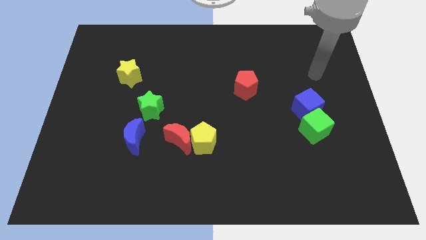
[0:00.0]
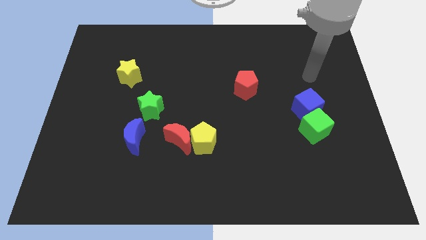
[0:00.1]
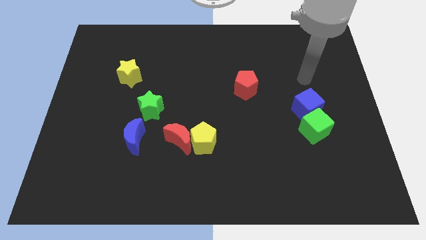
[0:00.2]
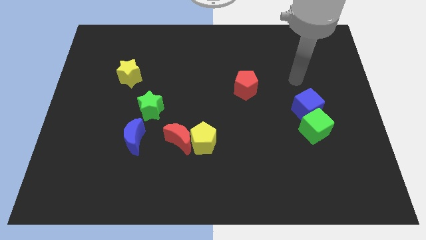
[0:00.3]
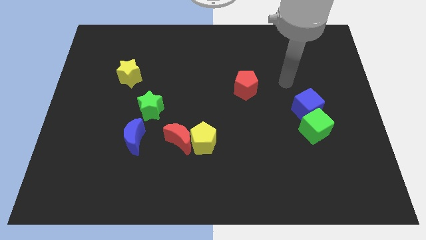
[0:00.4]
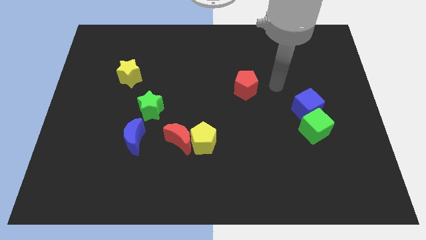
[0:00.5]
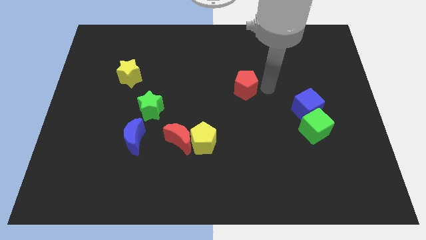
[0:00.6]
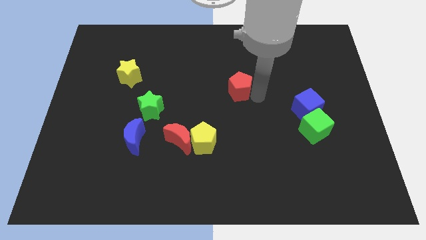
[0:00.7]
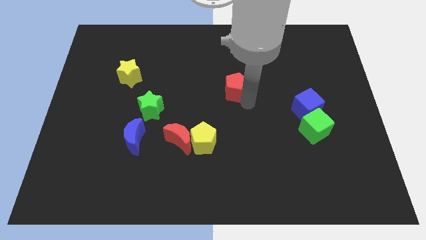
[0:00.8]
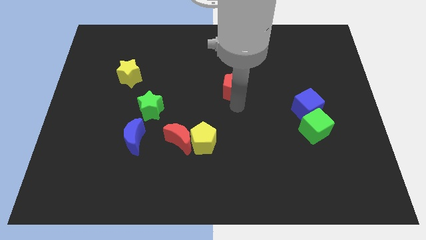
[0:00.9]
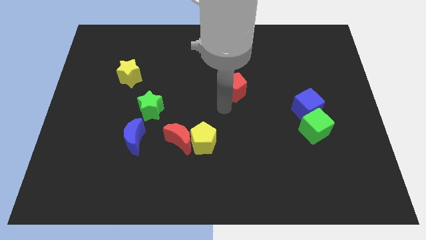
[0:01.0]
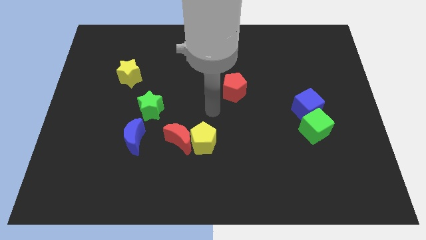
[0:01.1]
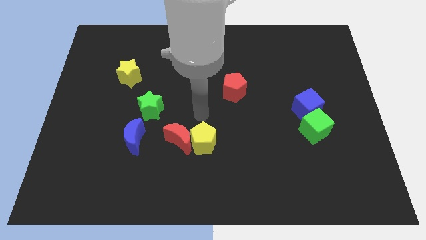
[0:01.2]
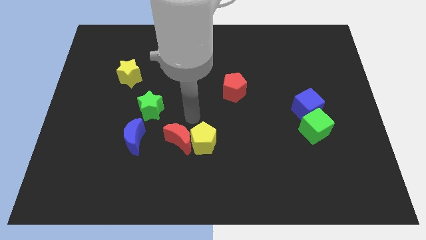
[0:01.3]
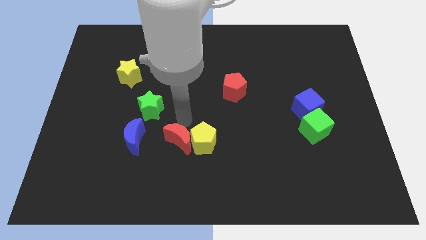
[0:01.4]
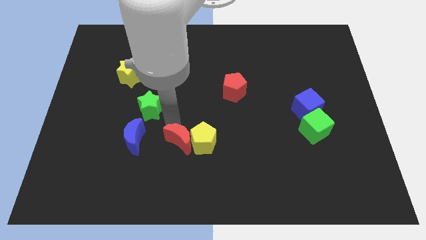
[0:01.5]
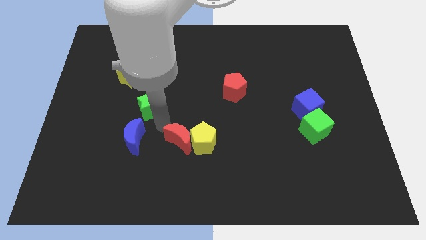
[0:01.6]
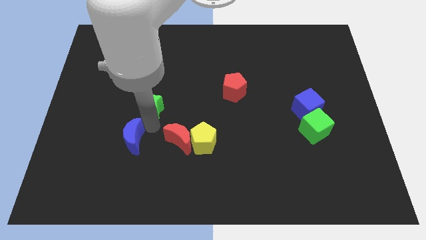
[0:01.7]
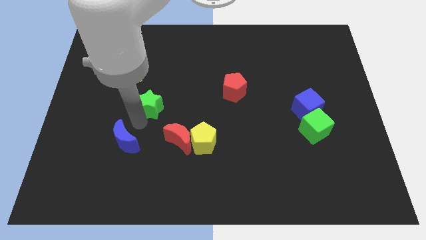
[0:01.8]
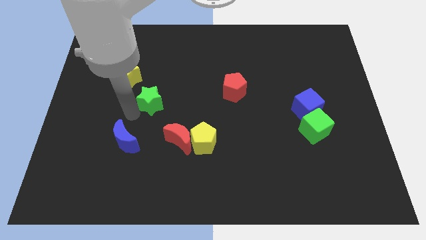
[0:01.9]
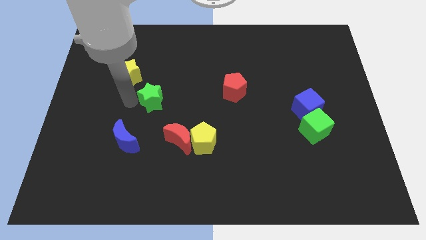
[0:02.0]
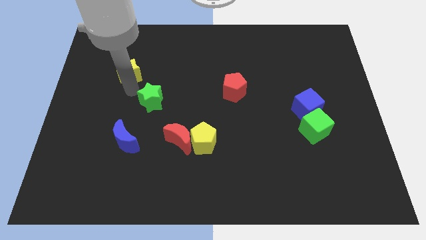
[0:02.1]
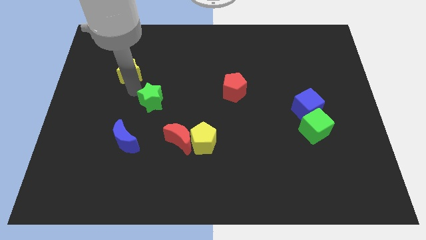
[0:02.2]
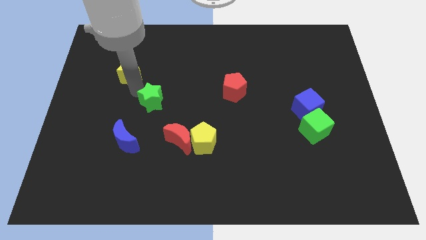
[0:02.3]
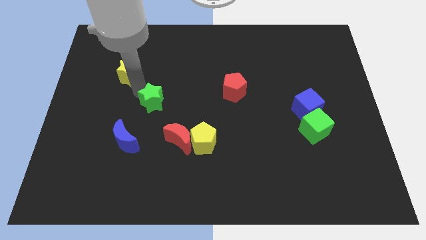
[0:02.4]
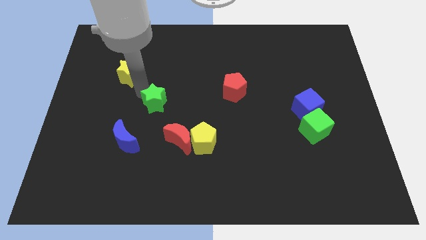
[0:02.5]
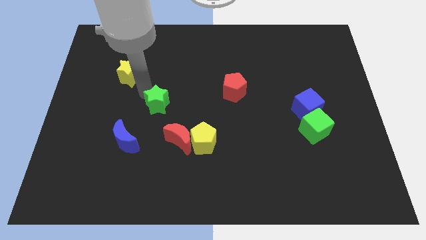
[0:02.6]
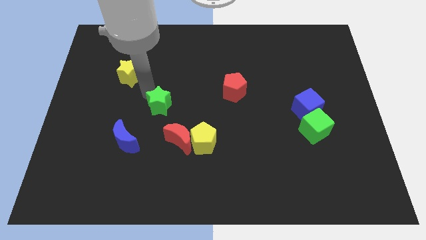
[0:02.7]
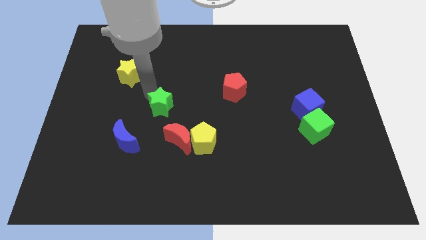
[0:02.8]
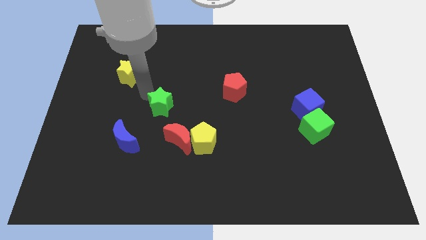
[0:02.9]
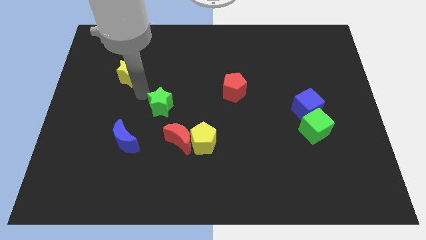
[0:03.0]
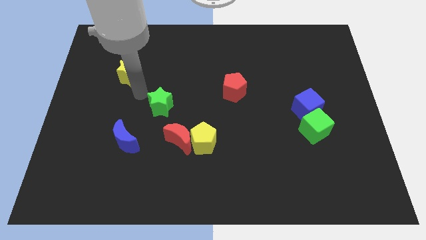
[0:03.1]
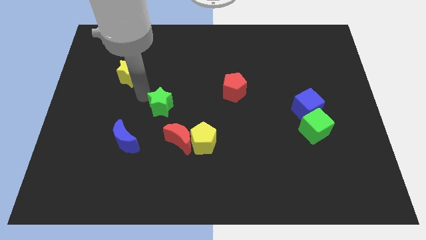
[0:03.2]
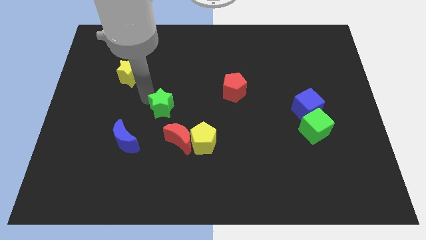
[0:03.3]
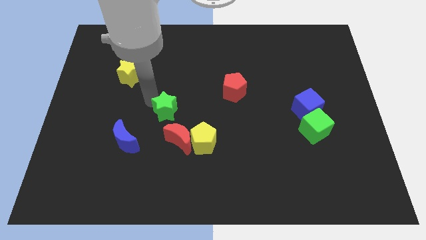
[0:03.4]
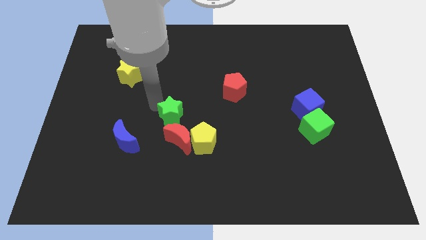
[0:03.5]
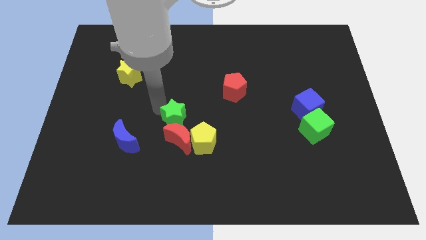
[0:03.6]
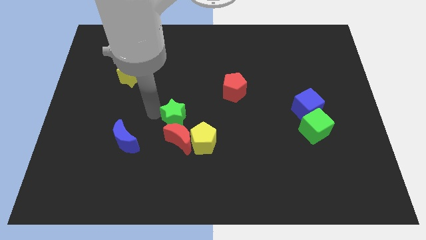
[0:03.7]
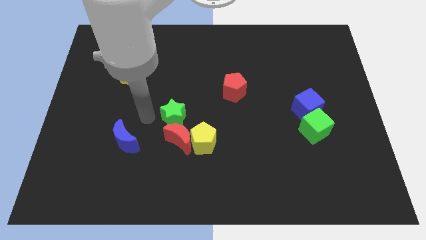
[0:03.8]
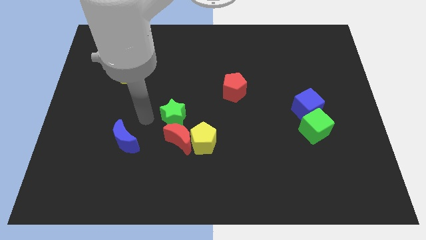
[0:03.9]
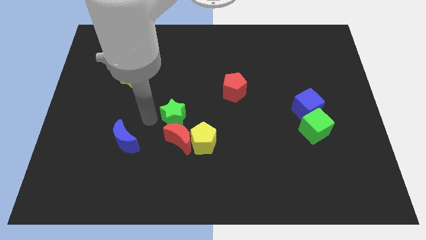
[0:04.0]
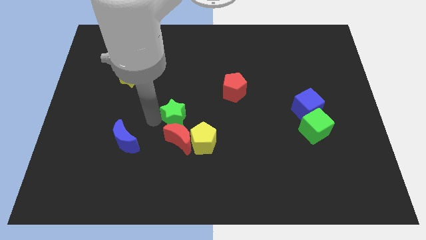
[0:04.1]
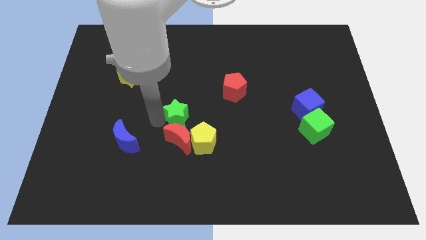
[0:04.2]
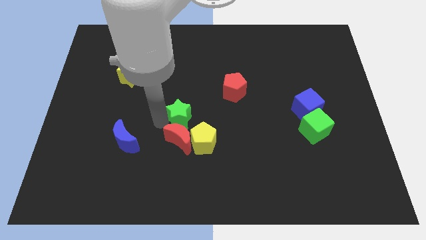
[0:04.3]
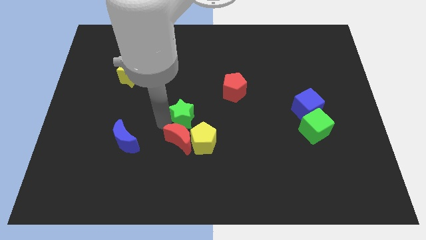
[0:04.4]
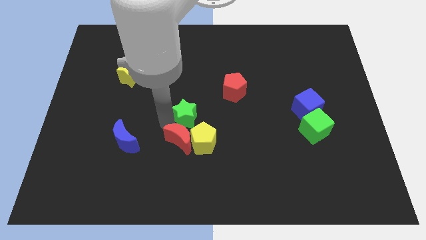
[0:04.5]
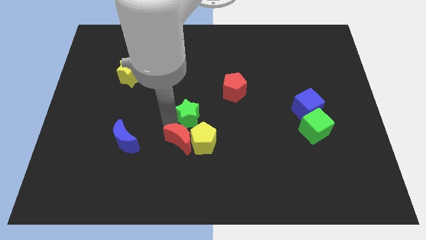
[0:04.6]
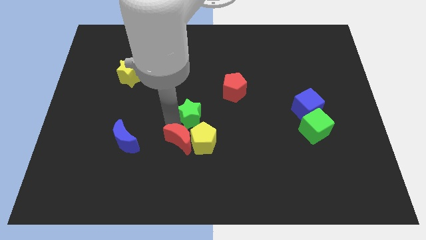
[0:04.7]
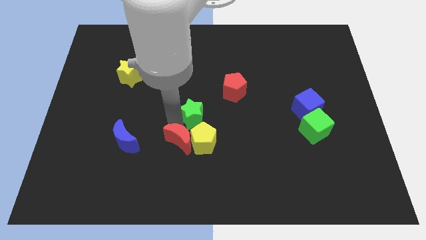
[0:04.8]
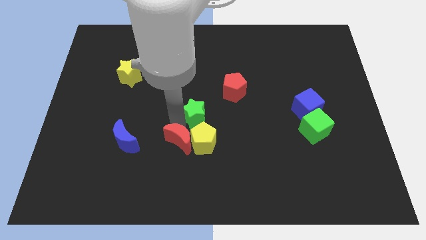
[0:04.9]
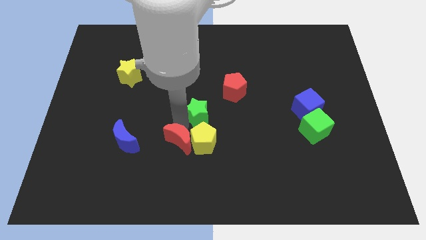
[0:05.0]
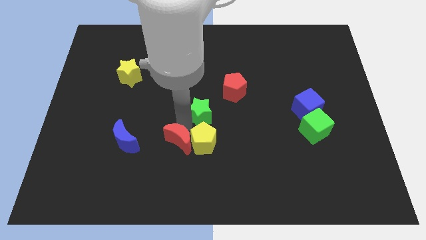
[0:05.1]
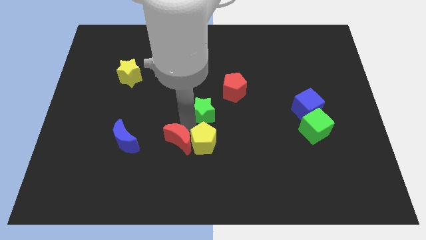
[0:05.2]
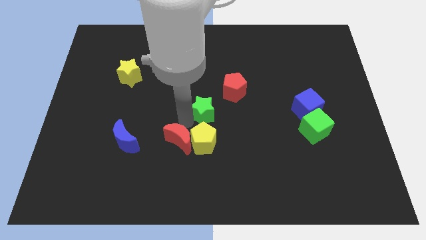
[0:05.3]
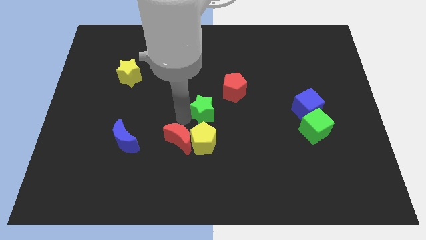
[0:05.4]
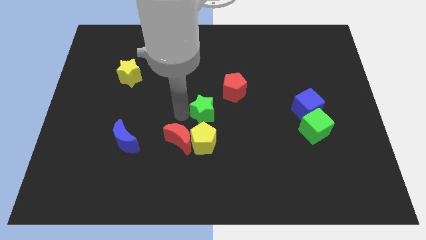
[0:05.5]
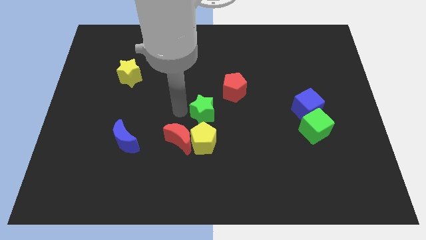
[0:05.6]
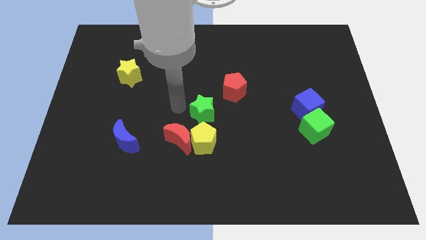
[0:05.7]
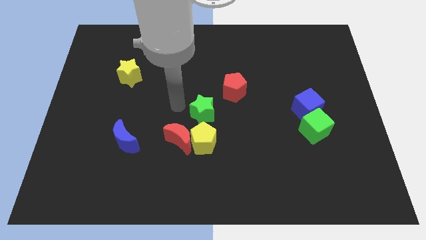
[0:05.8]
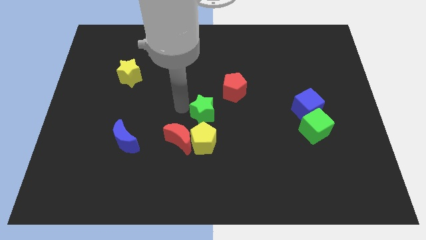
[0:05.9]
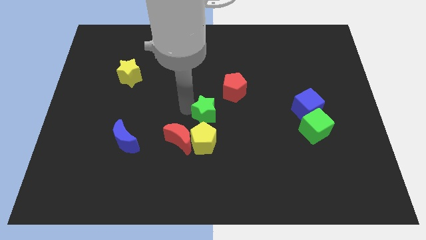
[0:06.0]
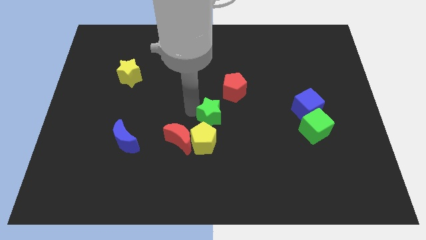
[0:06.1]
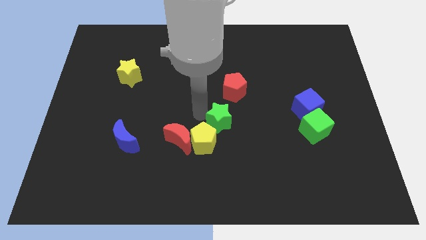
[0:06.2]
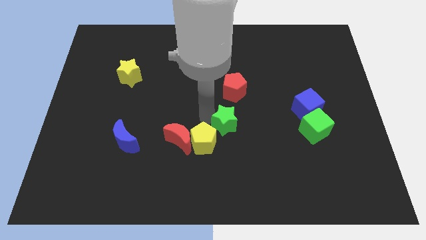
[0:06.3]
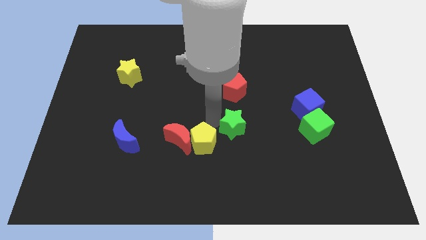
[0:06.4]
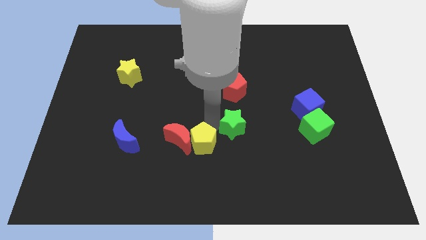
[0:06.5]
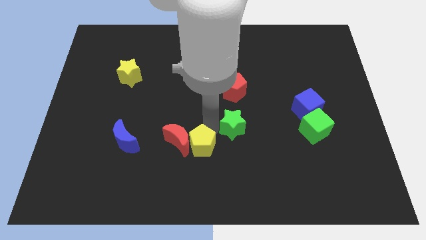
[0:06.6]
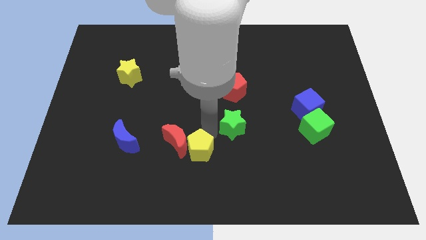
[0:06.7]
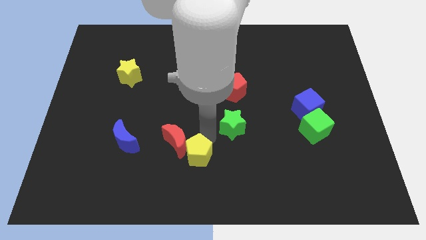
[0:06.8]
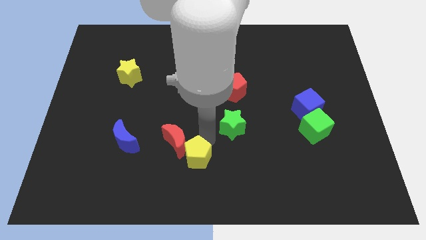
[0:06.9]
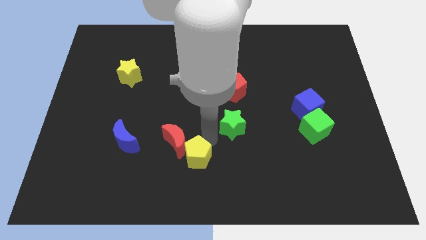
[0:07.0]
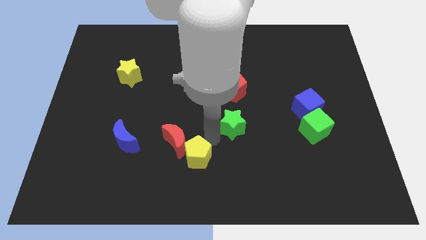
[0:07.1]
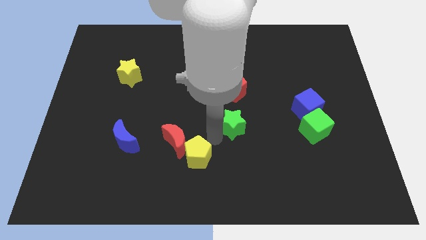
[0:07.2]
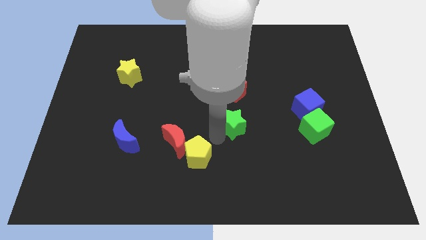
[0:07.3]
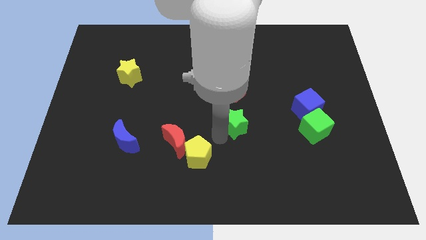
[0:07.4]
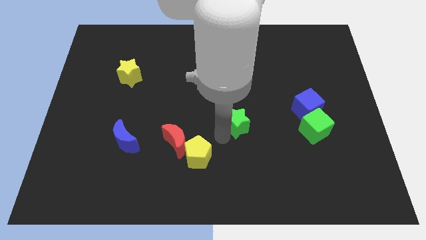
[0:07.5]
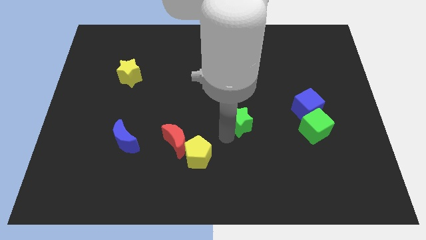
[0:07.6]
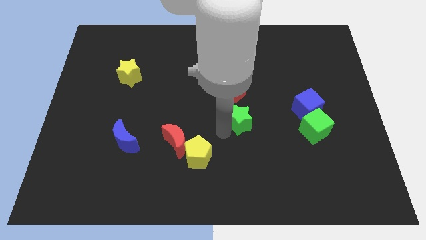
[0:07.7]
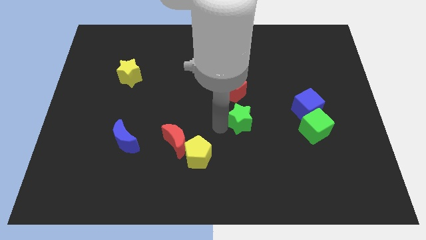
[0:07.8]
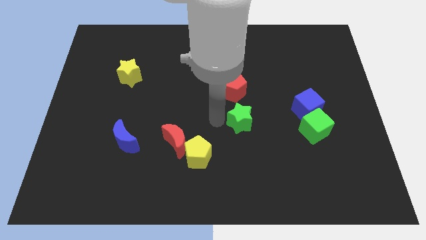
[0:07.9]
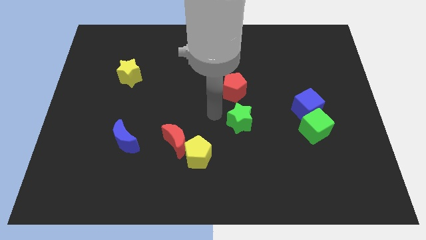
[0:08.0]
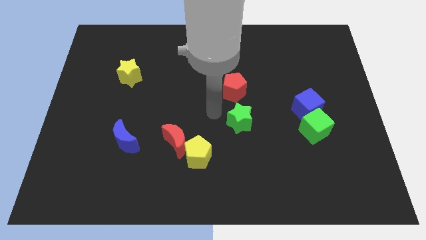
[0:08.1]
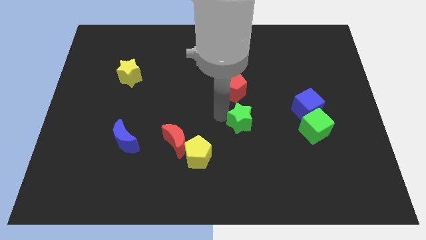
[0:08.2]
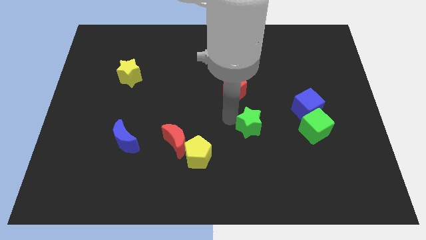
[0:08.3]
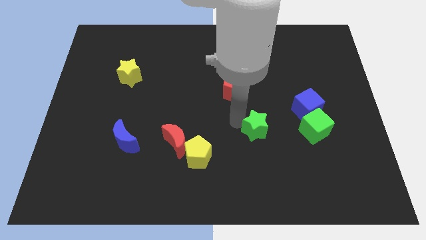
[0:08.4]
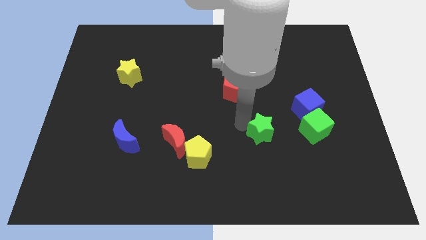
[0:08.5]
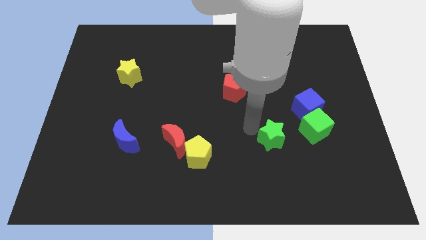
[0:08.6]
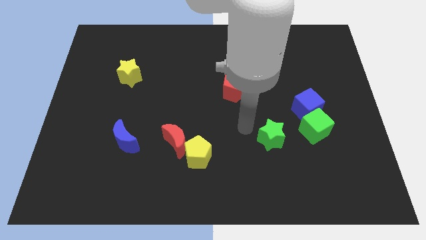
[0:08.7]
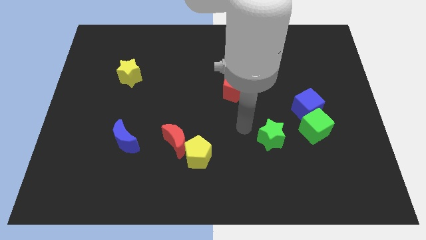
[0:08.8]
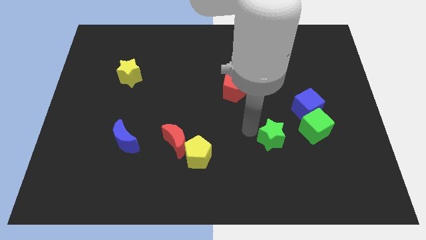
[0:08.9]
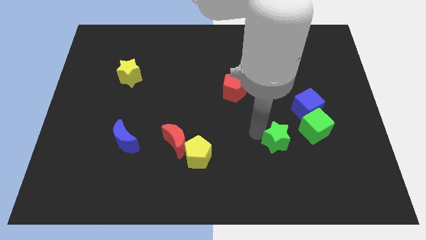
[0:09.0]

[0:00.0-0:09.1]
move the green star to the bottom left of the green cube
